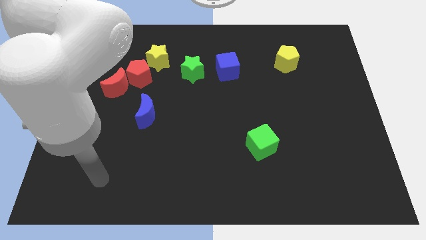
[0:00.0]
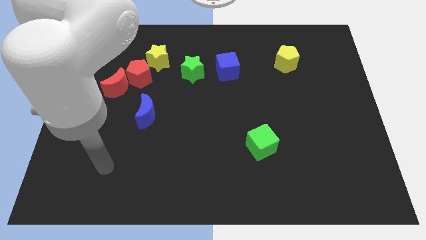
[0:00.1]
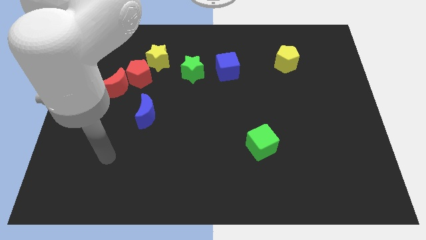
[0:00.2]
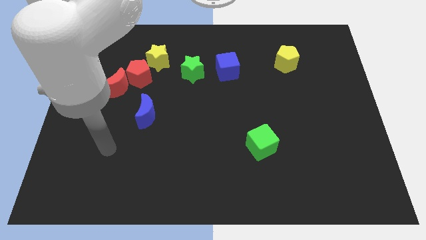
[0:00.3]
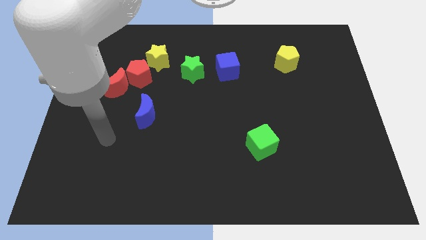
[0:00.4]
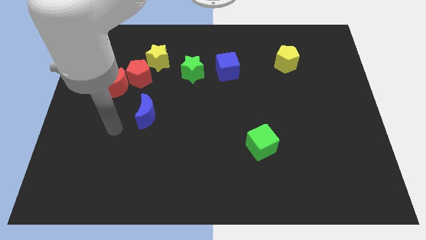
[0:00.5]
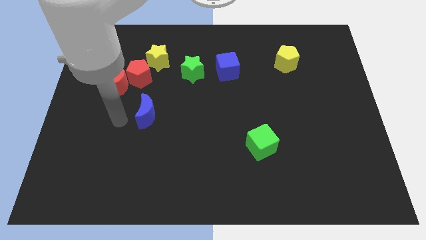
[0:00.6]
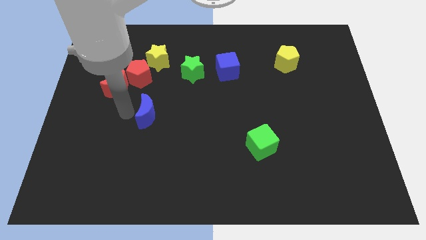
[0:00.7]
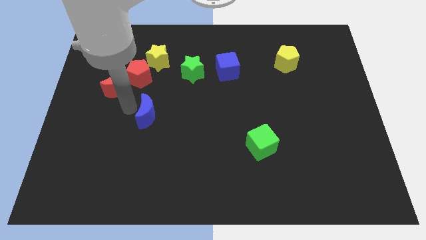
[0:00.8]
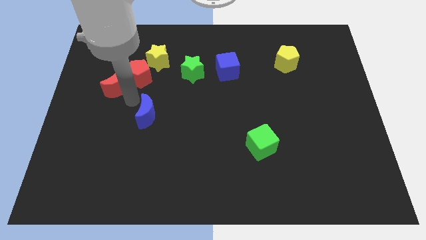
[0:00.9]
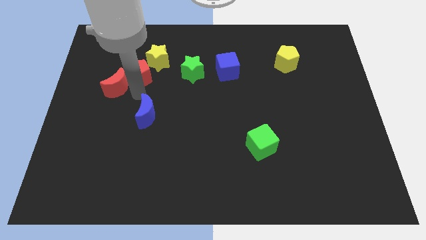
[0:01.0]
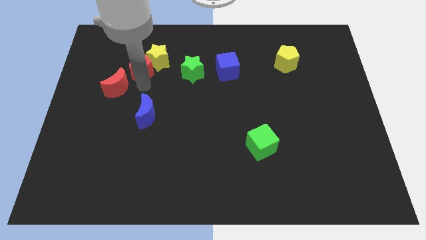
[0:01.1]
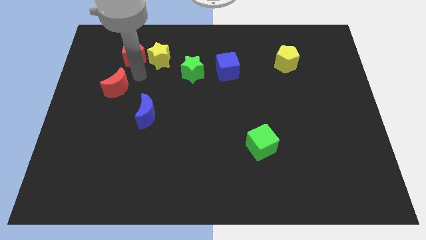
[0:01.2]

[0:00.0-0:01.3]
separate the red moon from the red pentagon

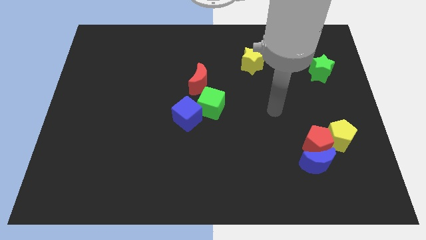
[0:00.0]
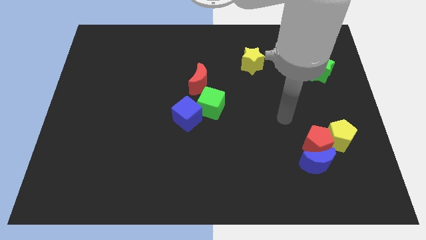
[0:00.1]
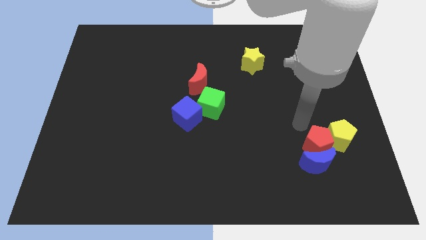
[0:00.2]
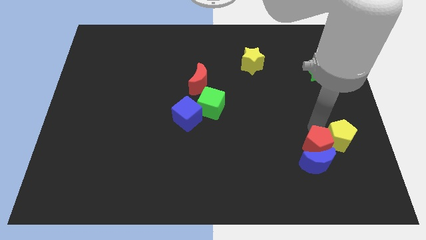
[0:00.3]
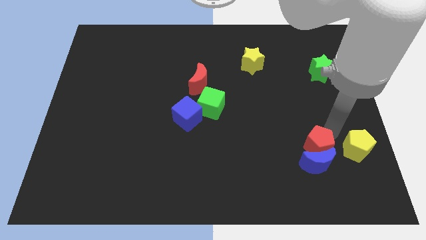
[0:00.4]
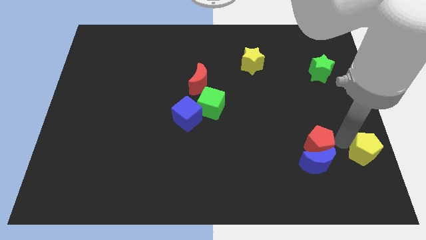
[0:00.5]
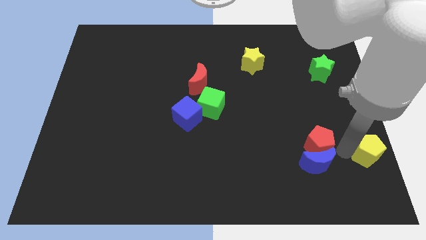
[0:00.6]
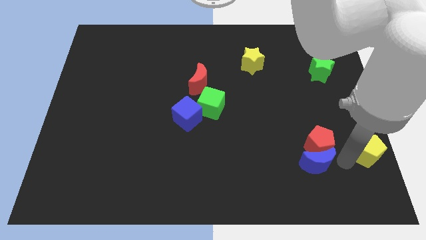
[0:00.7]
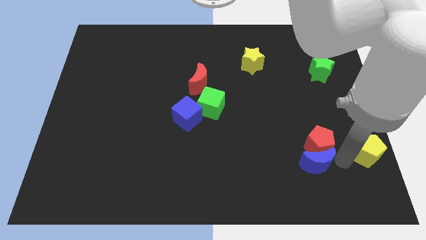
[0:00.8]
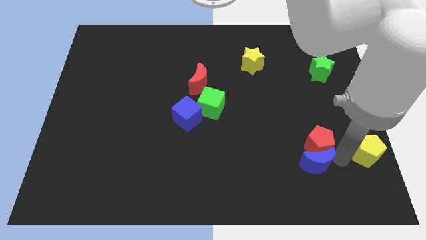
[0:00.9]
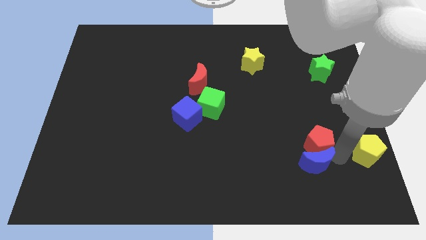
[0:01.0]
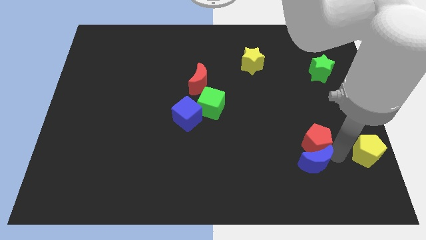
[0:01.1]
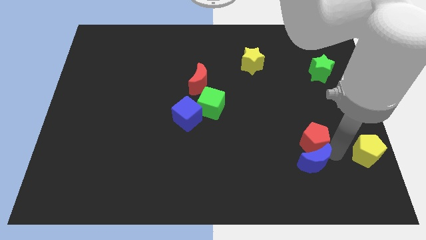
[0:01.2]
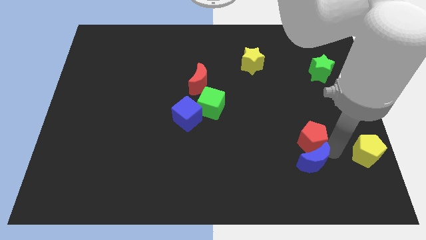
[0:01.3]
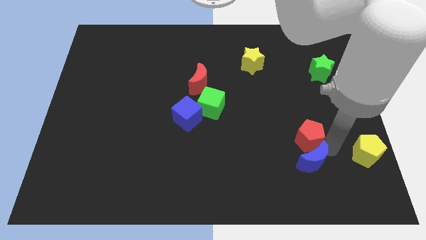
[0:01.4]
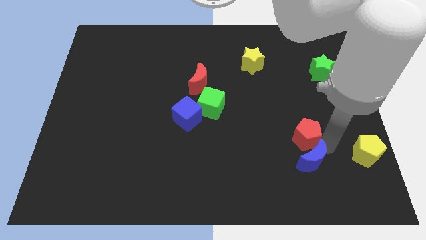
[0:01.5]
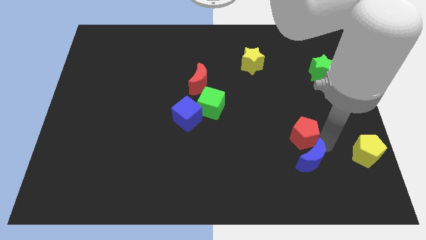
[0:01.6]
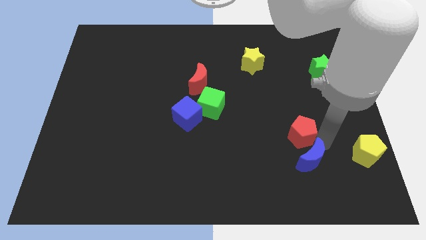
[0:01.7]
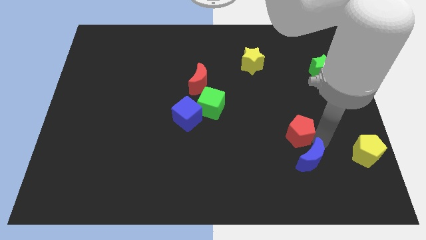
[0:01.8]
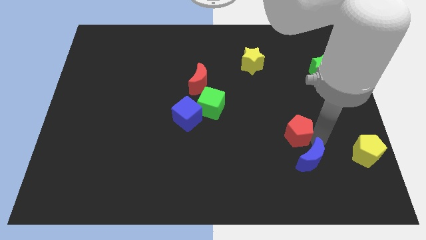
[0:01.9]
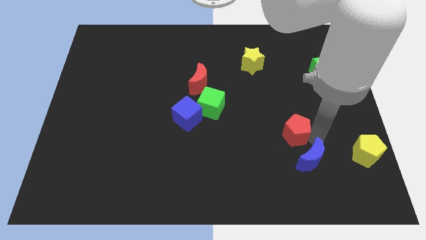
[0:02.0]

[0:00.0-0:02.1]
move the red pentagon away from the blue moon and yellow pentagon

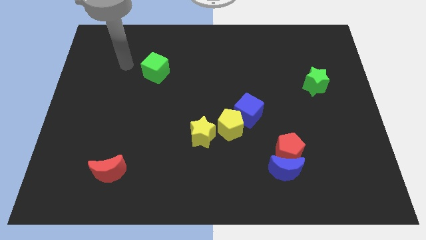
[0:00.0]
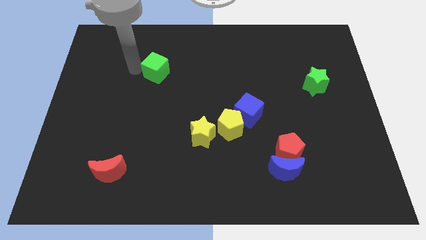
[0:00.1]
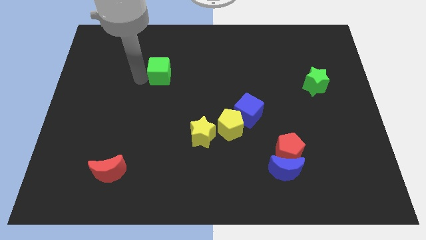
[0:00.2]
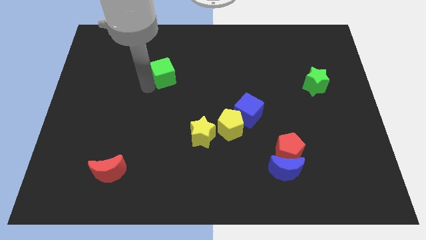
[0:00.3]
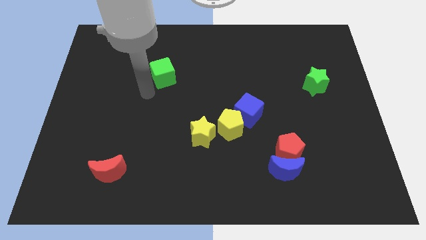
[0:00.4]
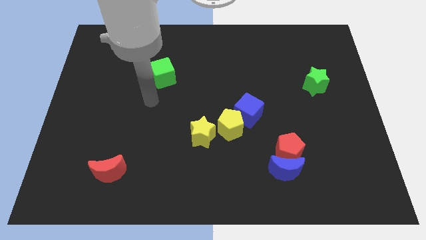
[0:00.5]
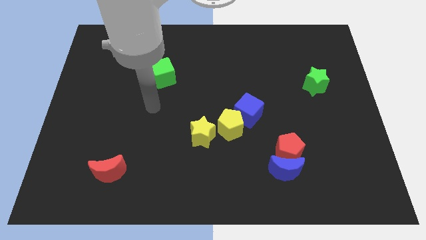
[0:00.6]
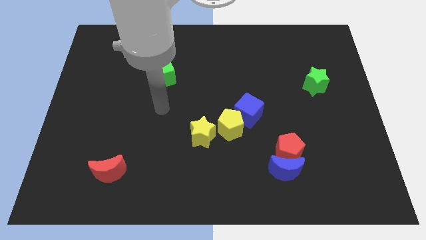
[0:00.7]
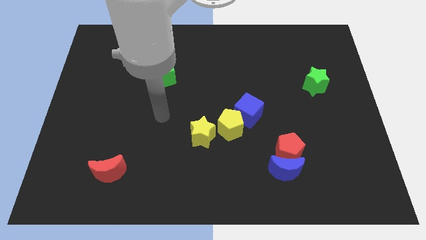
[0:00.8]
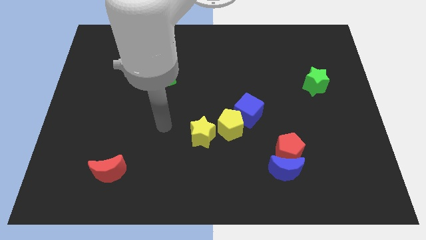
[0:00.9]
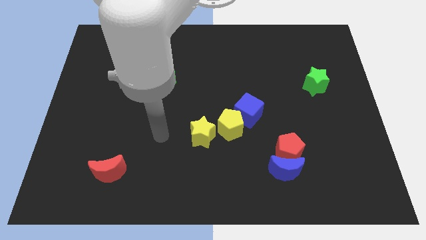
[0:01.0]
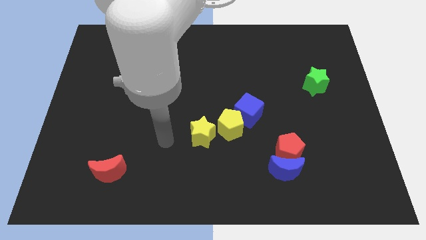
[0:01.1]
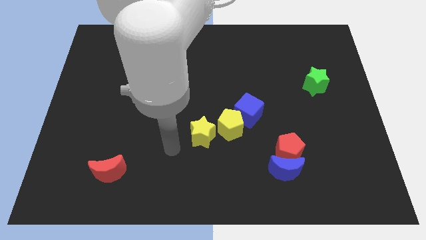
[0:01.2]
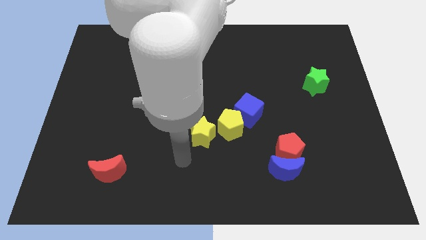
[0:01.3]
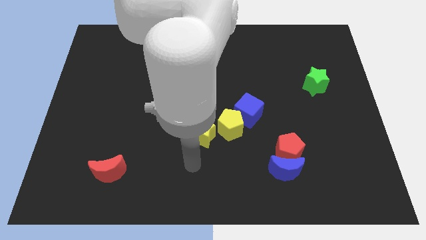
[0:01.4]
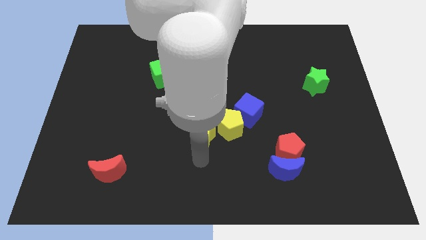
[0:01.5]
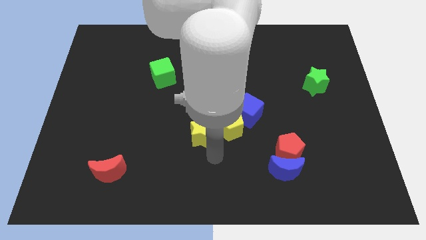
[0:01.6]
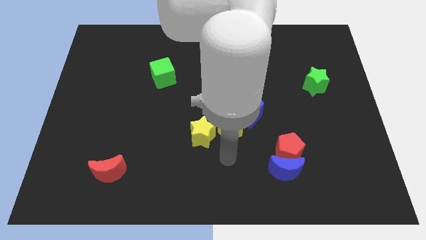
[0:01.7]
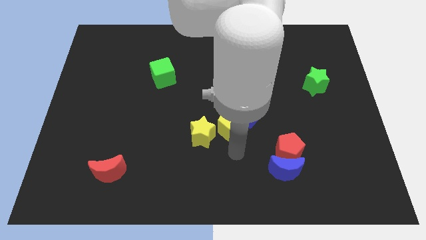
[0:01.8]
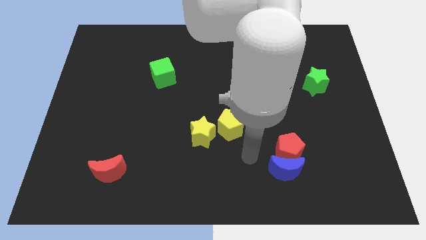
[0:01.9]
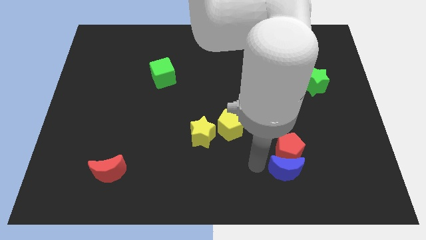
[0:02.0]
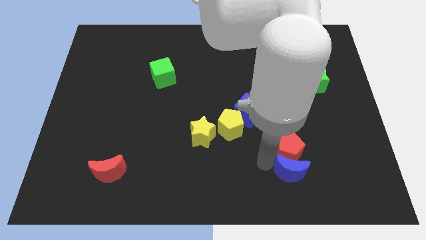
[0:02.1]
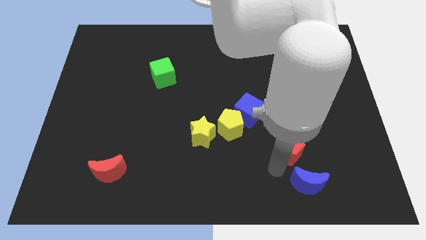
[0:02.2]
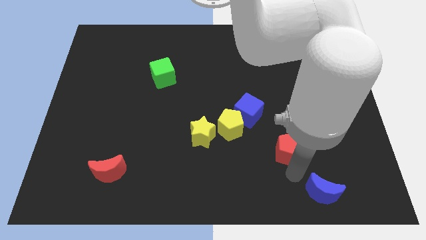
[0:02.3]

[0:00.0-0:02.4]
move the red pentagon away from the blue moon

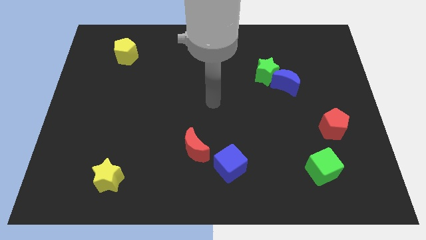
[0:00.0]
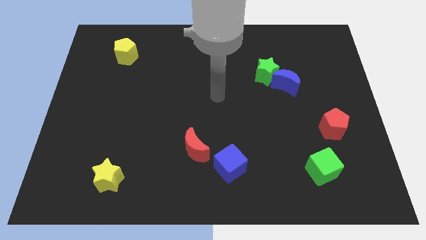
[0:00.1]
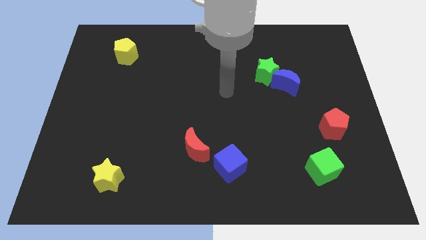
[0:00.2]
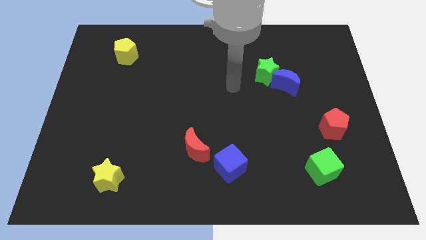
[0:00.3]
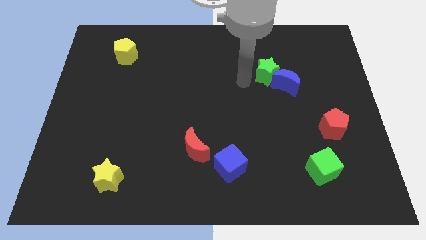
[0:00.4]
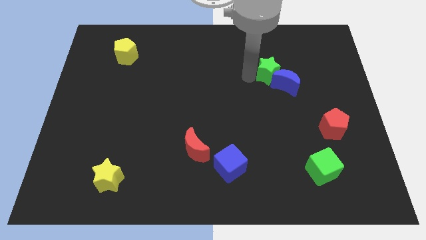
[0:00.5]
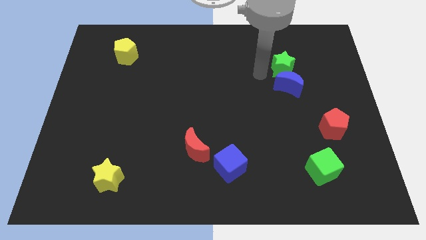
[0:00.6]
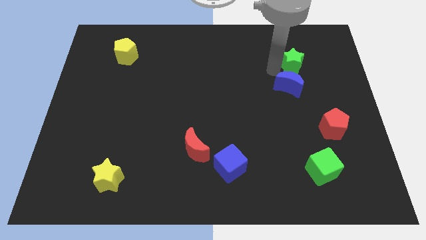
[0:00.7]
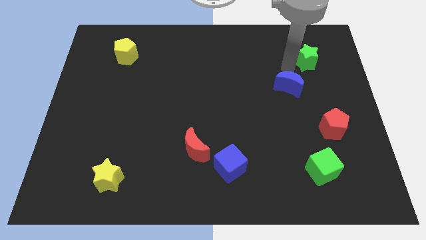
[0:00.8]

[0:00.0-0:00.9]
pull the blue moon apart from the green star

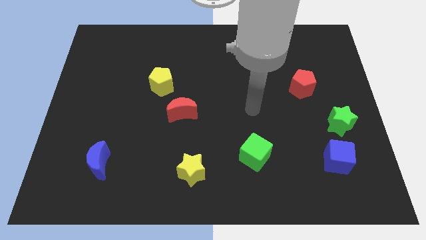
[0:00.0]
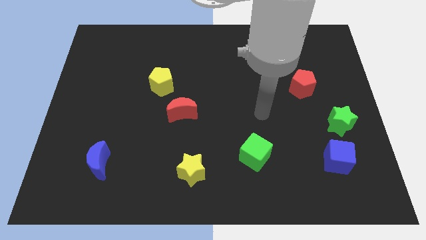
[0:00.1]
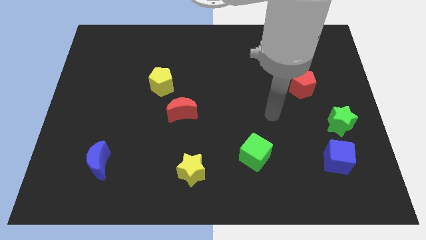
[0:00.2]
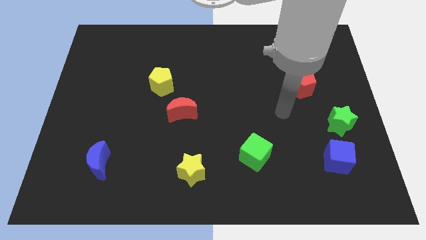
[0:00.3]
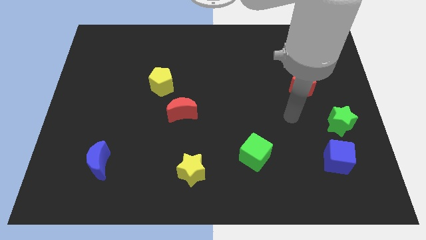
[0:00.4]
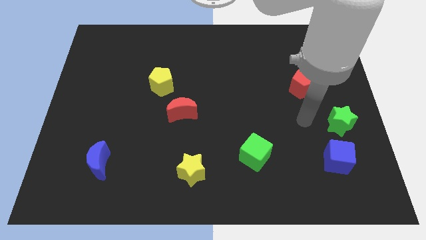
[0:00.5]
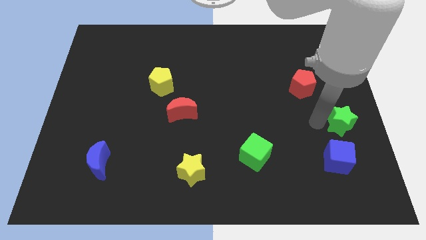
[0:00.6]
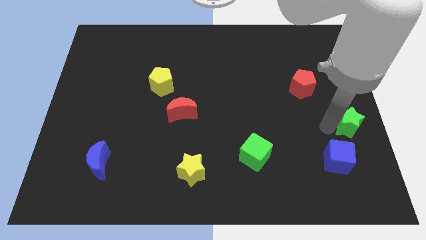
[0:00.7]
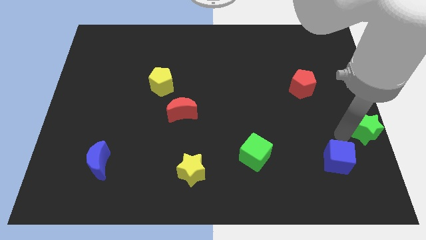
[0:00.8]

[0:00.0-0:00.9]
separate the blue cube from the green star

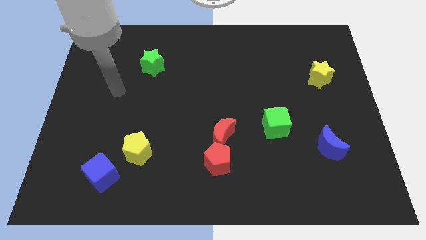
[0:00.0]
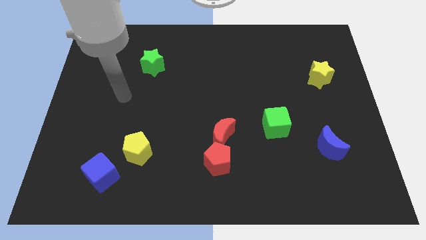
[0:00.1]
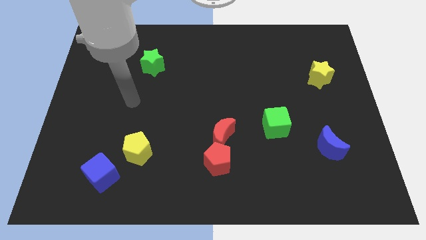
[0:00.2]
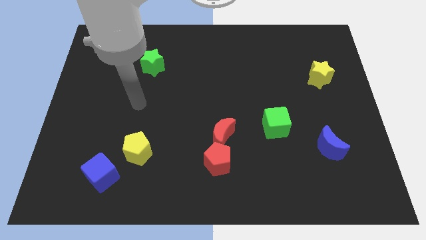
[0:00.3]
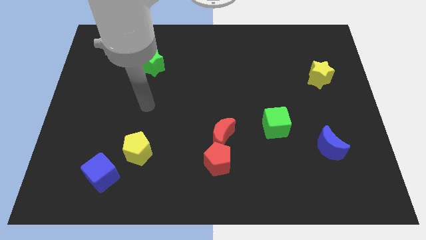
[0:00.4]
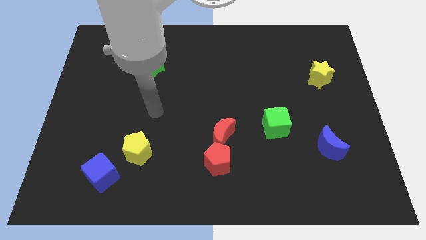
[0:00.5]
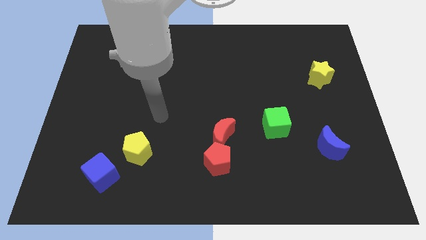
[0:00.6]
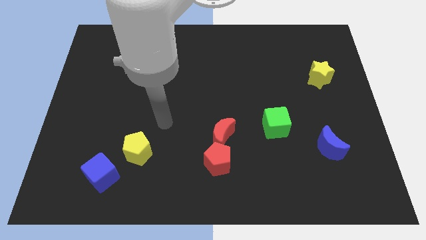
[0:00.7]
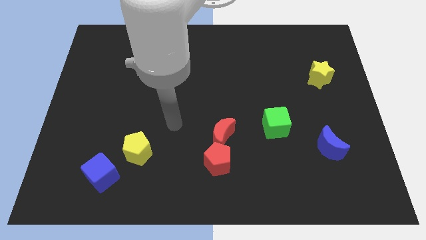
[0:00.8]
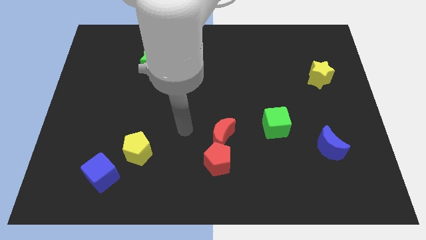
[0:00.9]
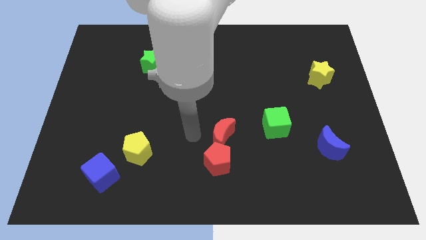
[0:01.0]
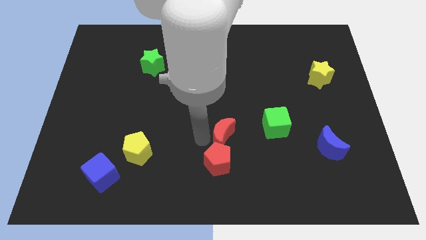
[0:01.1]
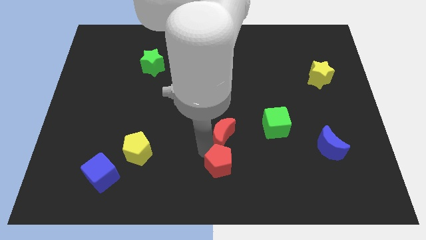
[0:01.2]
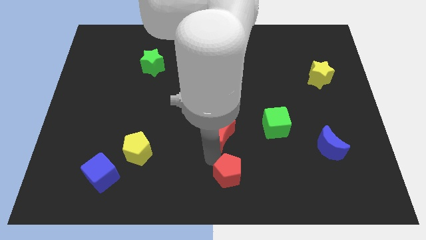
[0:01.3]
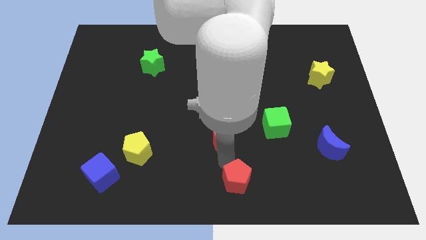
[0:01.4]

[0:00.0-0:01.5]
move the red moon away from the red pentagon

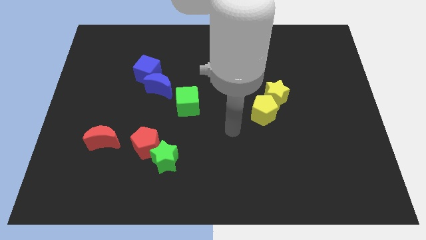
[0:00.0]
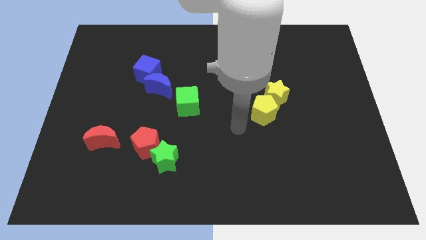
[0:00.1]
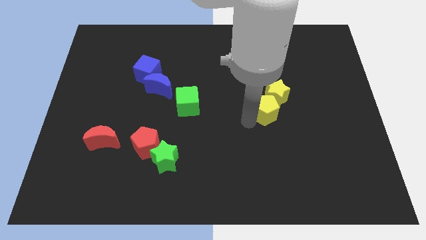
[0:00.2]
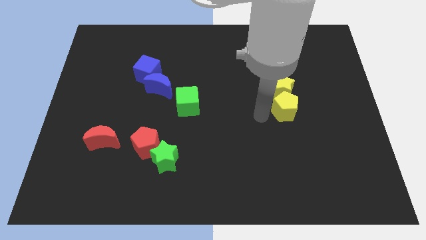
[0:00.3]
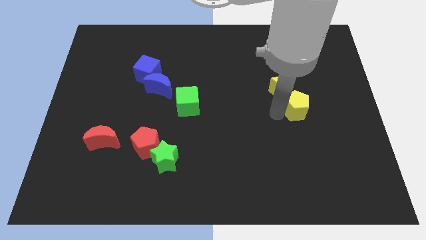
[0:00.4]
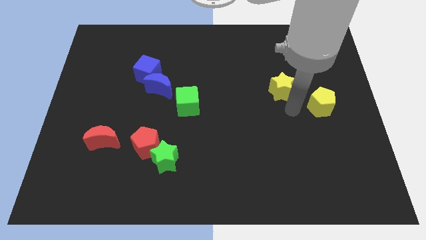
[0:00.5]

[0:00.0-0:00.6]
separate the yellow star from the yellow pentagon
